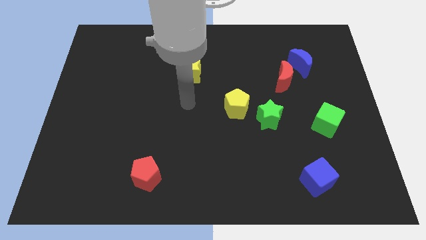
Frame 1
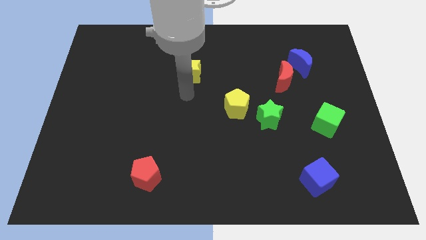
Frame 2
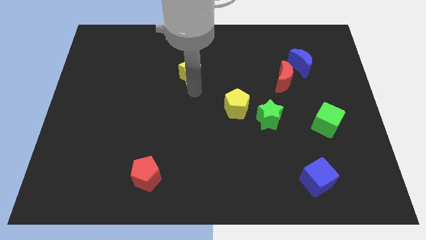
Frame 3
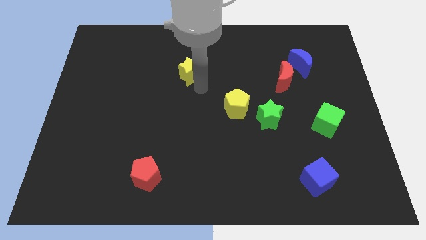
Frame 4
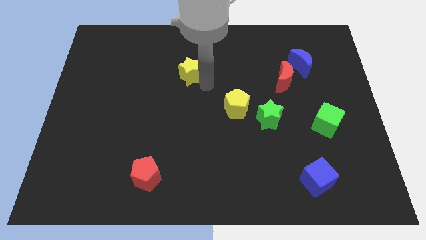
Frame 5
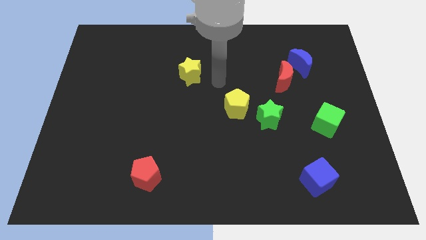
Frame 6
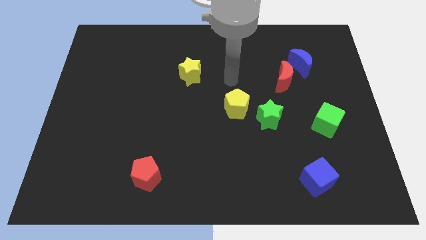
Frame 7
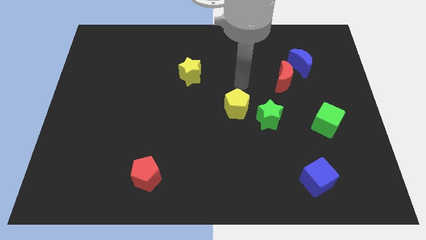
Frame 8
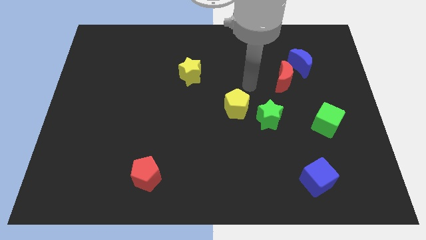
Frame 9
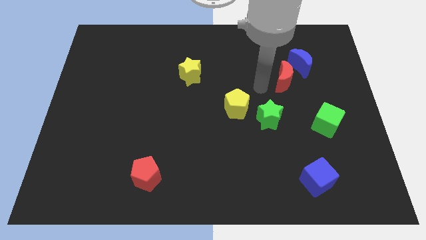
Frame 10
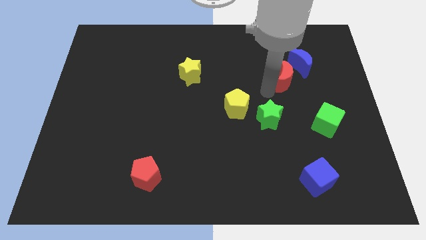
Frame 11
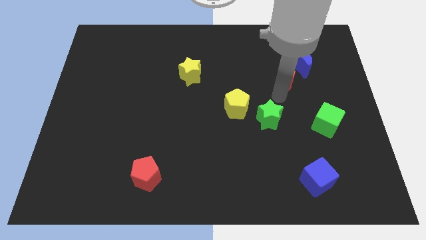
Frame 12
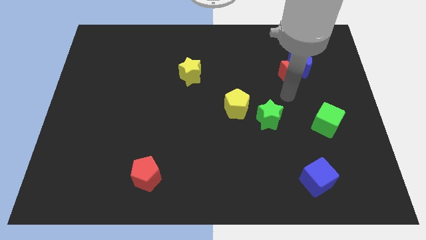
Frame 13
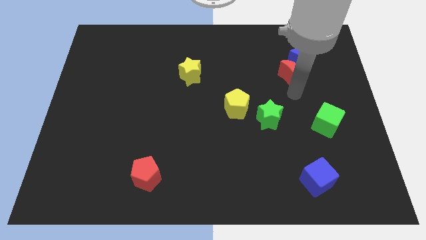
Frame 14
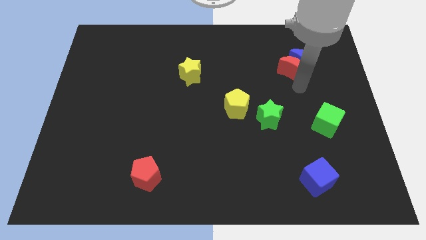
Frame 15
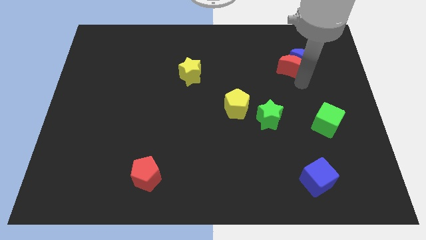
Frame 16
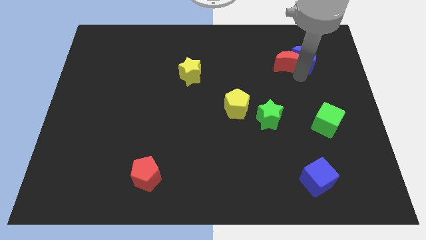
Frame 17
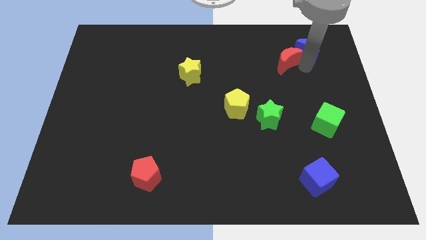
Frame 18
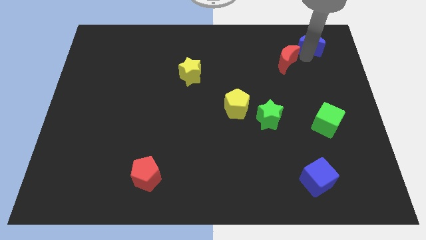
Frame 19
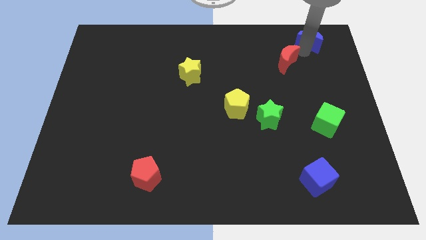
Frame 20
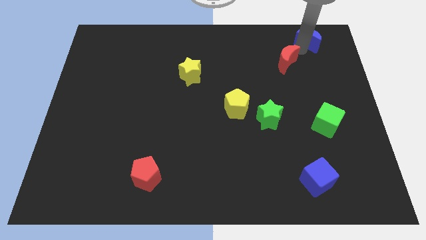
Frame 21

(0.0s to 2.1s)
move the red moon away from the blue moon

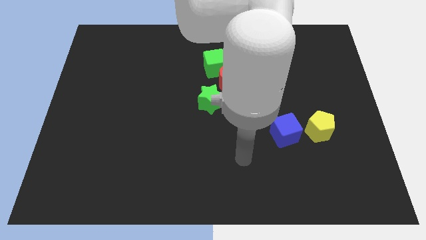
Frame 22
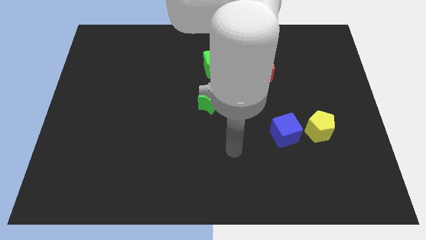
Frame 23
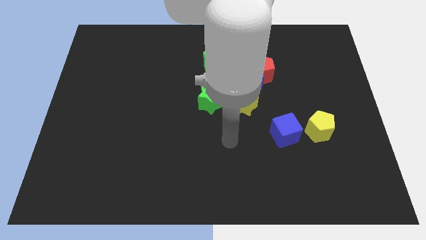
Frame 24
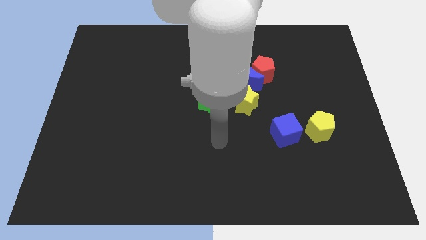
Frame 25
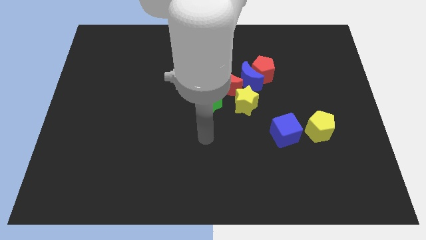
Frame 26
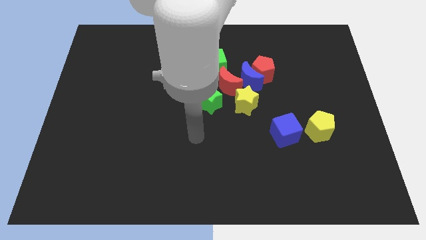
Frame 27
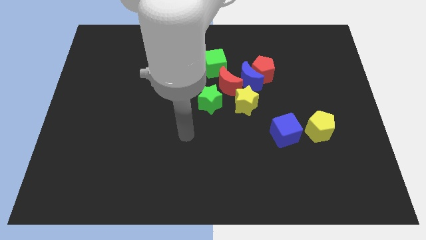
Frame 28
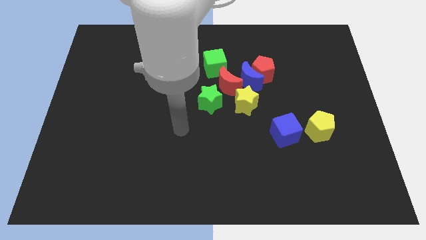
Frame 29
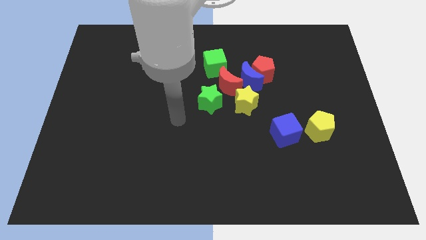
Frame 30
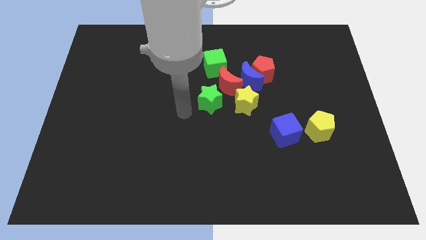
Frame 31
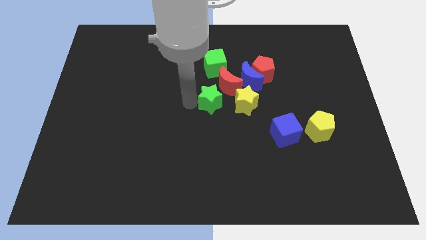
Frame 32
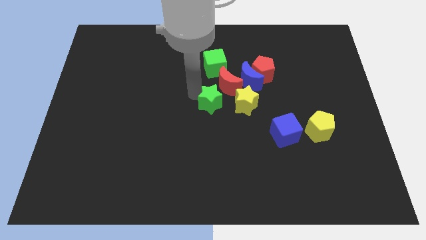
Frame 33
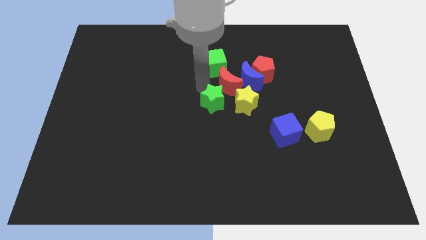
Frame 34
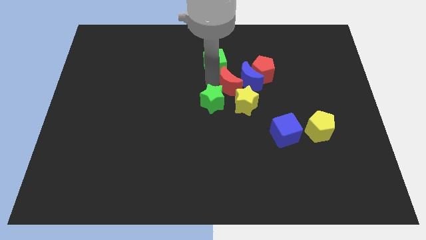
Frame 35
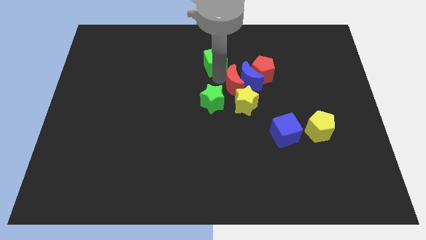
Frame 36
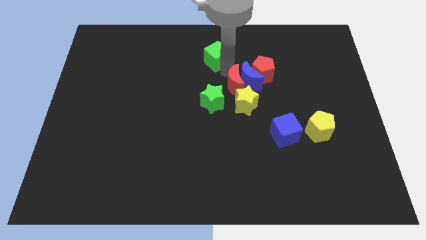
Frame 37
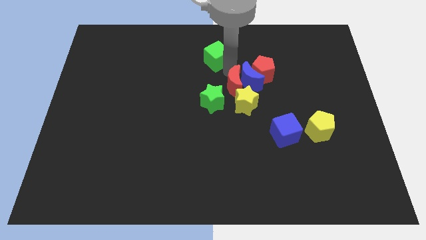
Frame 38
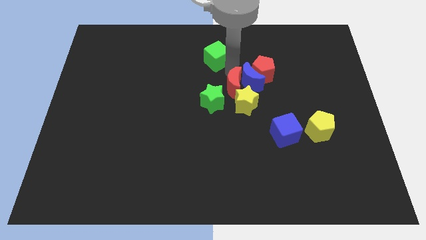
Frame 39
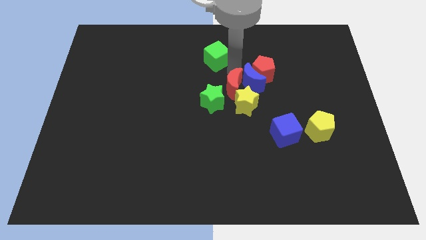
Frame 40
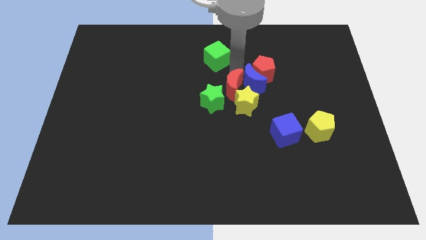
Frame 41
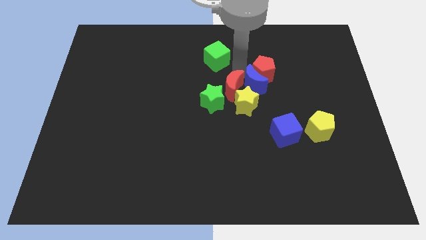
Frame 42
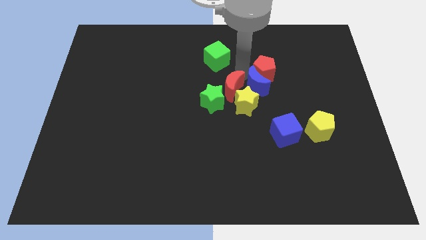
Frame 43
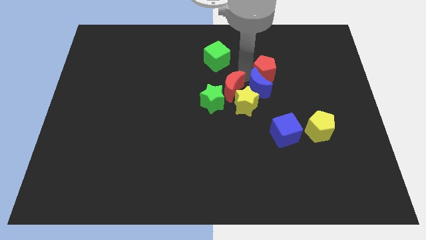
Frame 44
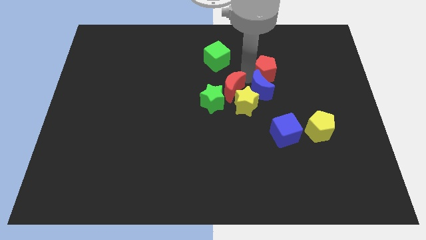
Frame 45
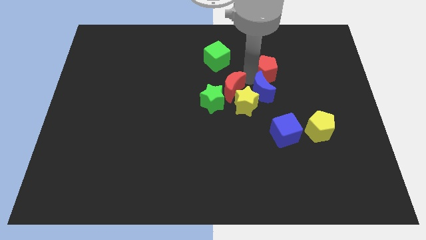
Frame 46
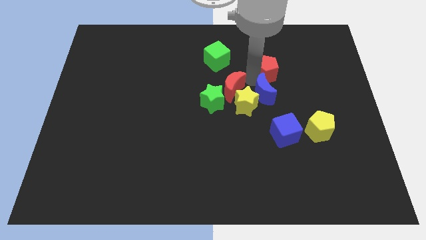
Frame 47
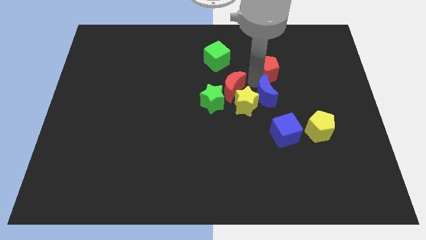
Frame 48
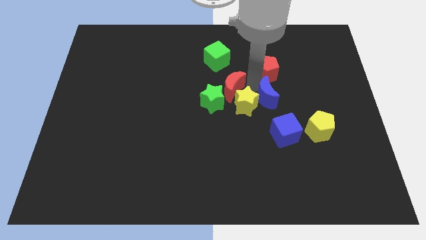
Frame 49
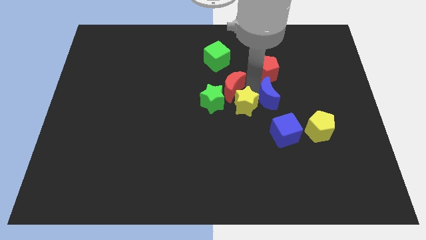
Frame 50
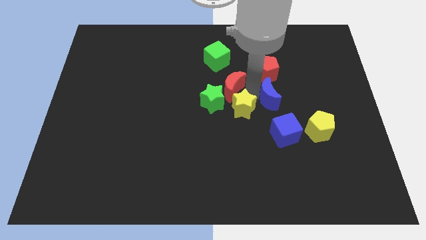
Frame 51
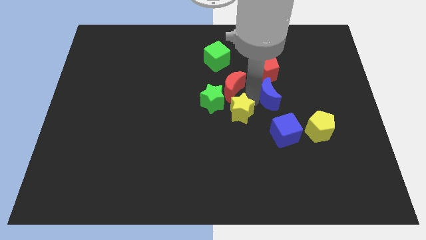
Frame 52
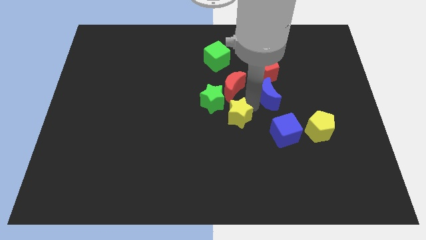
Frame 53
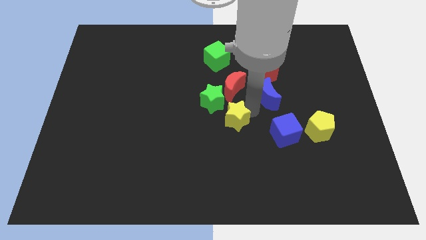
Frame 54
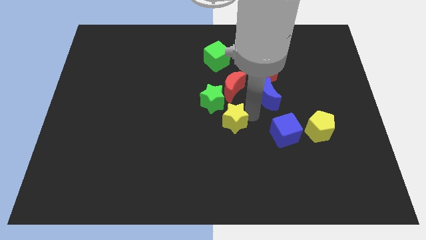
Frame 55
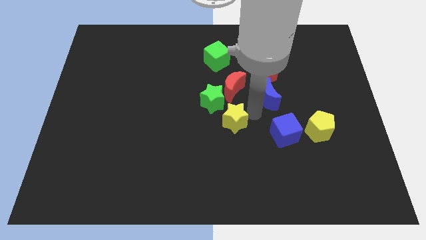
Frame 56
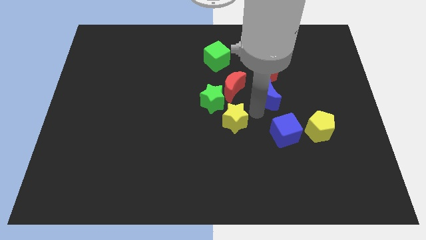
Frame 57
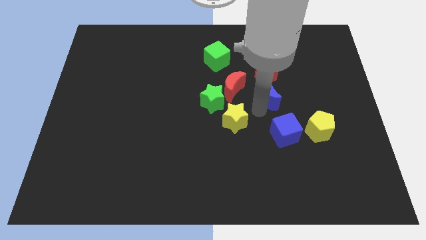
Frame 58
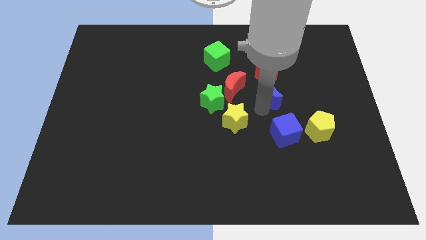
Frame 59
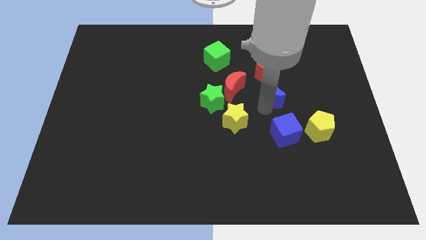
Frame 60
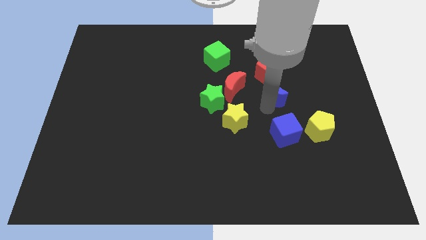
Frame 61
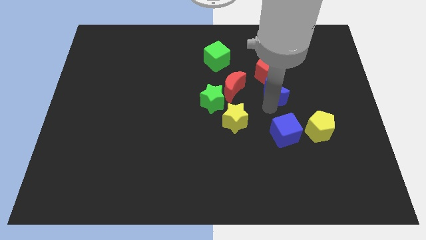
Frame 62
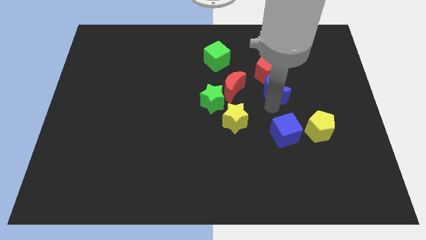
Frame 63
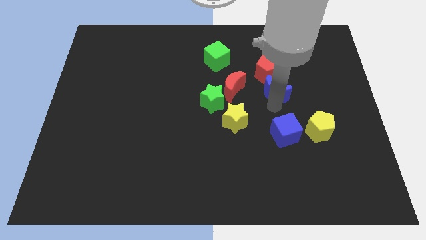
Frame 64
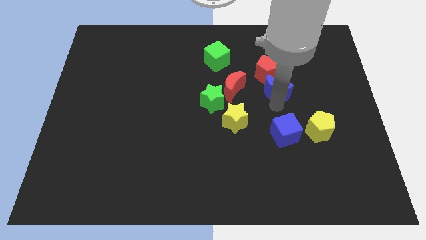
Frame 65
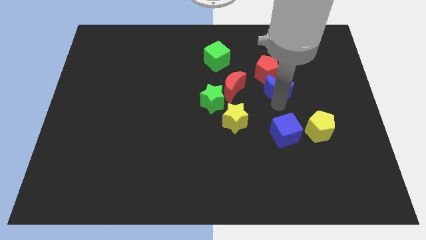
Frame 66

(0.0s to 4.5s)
pull the blue moon apart from the clump

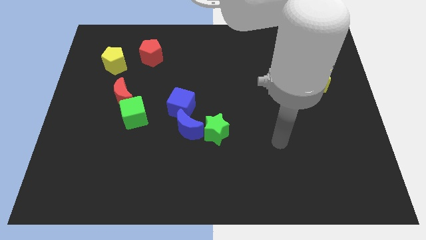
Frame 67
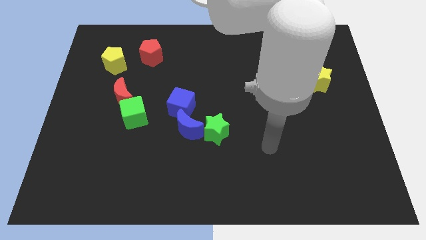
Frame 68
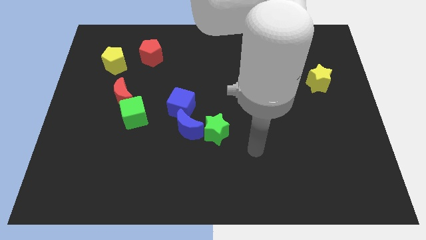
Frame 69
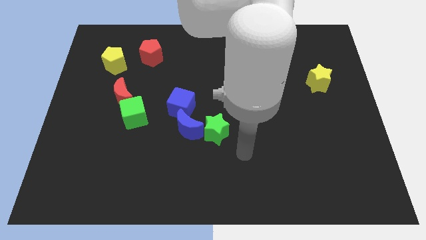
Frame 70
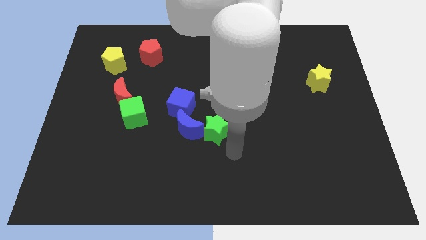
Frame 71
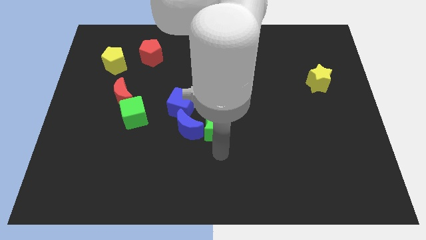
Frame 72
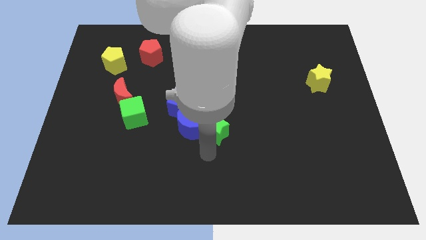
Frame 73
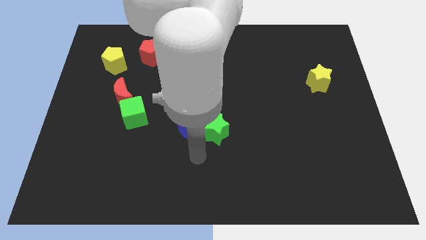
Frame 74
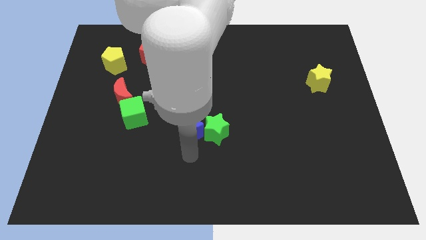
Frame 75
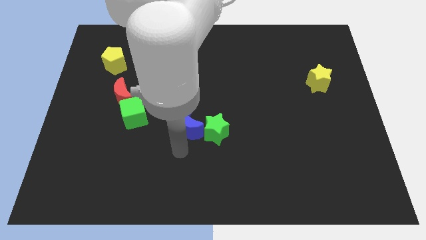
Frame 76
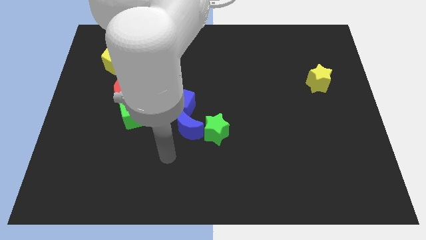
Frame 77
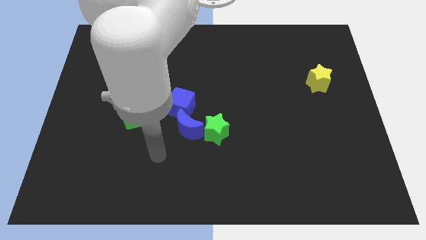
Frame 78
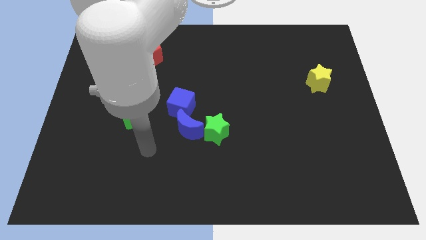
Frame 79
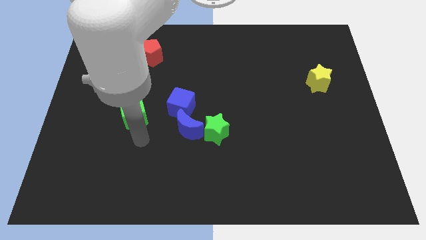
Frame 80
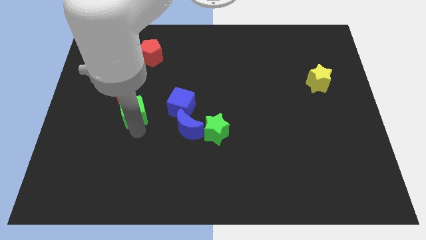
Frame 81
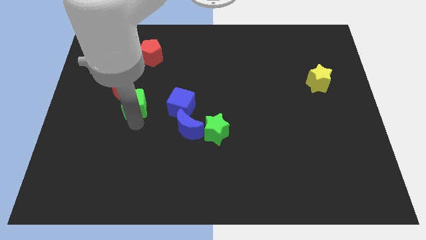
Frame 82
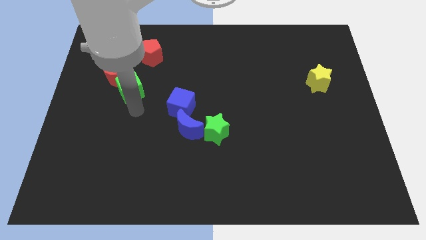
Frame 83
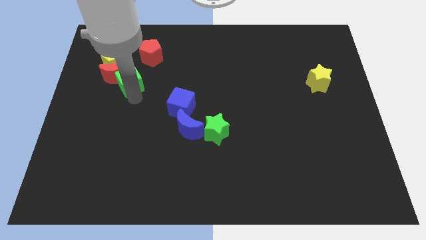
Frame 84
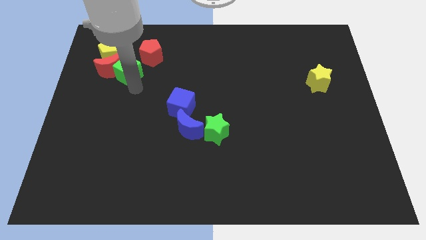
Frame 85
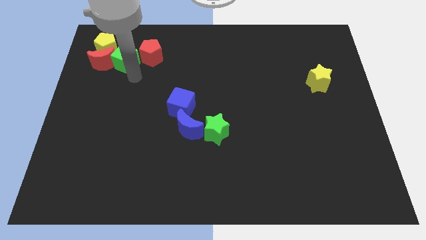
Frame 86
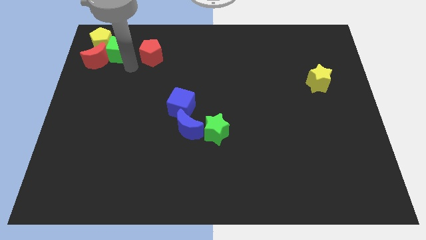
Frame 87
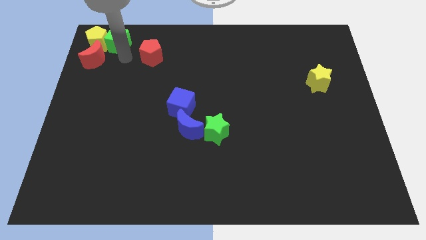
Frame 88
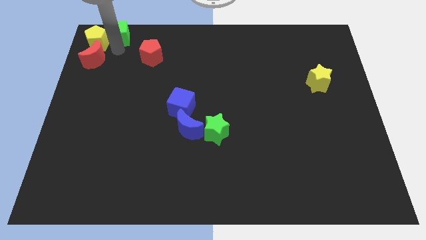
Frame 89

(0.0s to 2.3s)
move the red moon away from the green cube

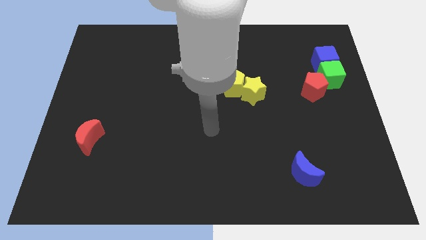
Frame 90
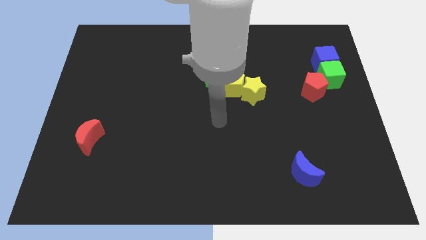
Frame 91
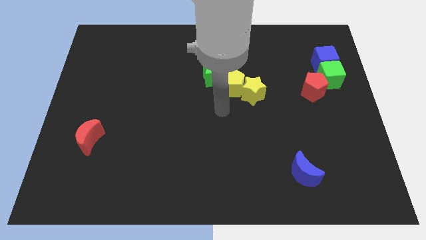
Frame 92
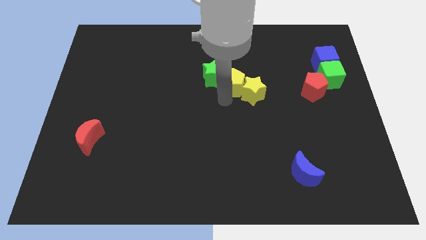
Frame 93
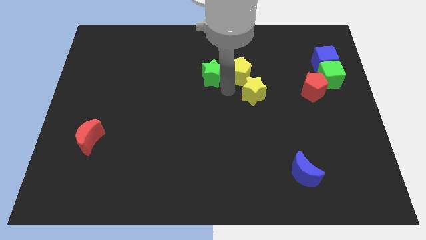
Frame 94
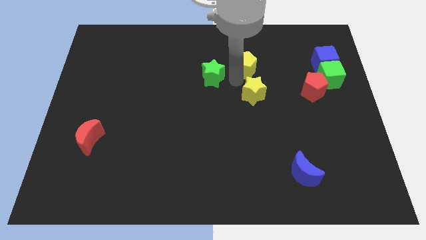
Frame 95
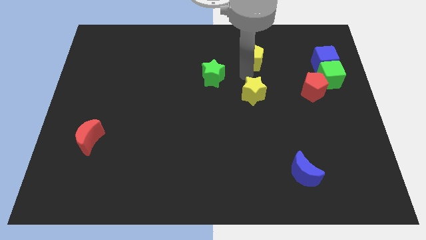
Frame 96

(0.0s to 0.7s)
pull the yellow star apart from the yellow pentagon
